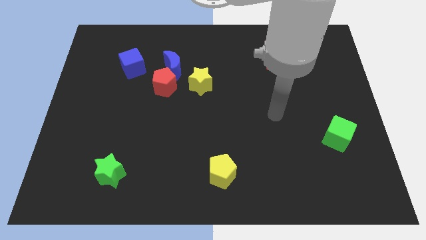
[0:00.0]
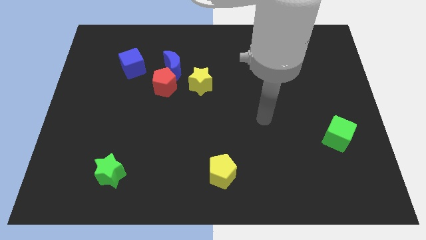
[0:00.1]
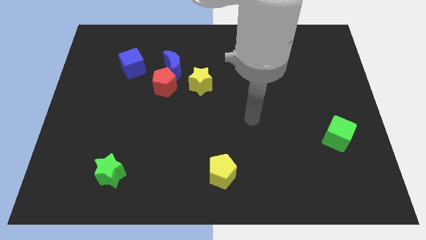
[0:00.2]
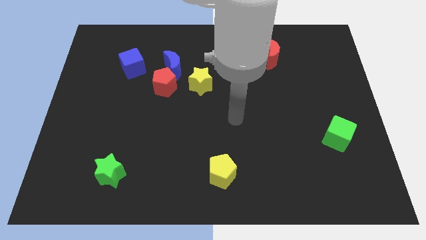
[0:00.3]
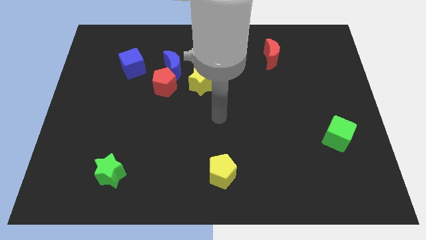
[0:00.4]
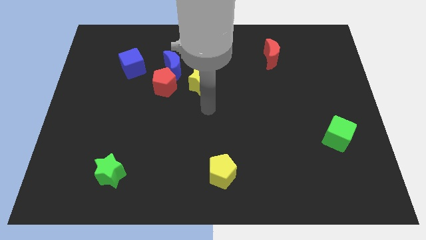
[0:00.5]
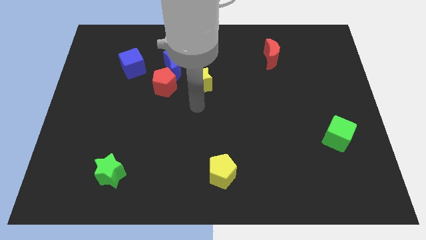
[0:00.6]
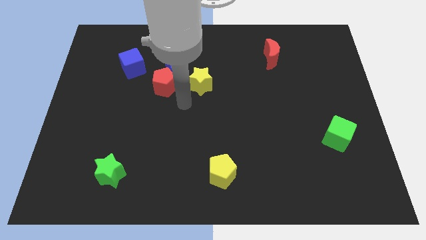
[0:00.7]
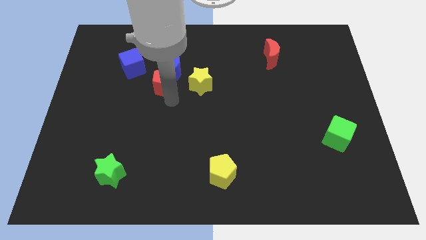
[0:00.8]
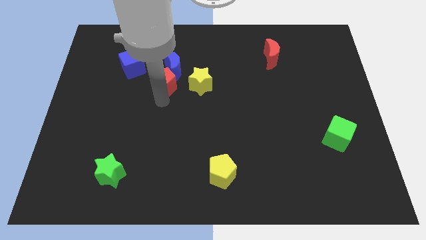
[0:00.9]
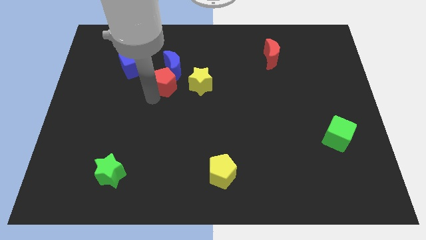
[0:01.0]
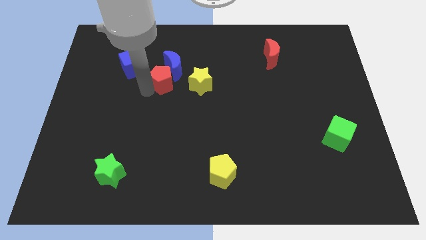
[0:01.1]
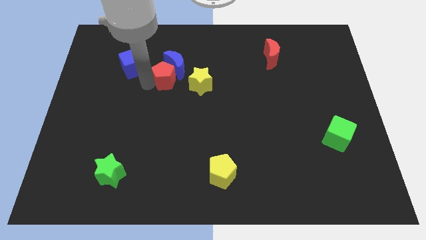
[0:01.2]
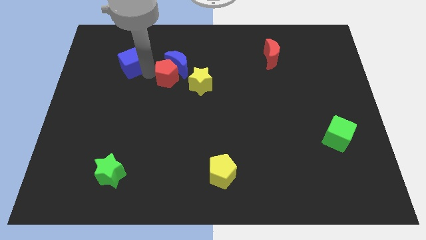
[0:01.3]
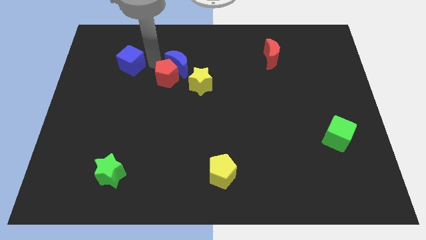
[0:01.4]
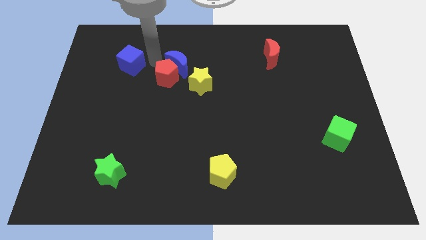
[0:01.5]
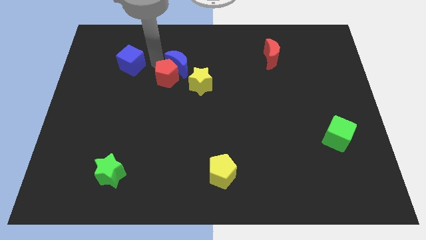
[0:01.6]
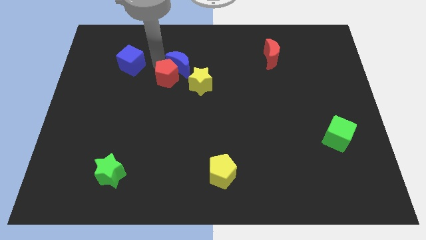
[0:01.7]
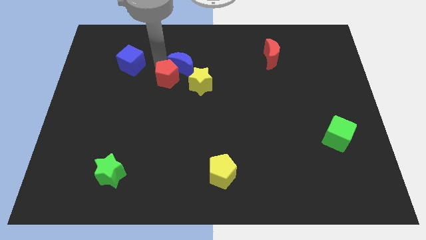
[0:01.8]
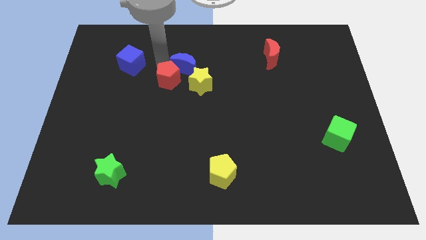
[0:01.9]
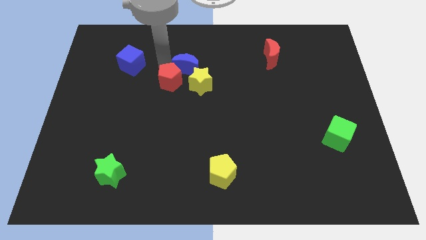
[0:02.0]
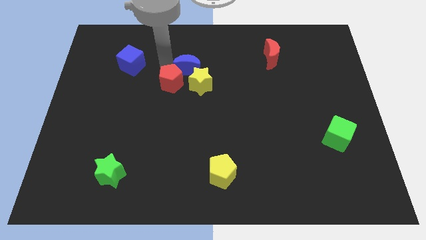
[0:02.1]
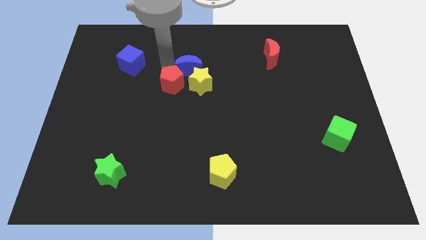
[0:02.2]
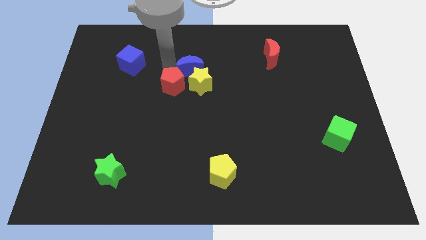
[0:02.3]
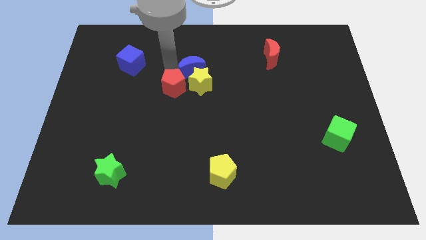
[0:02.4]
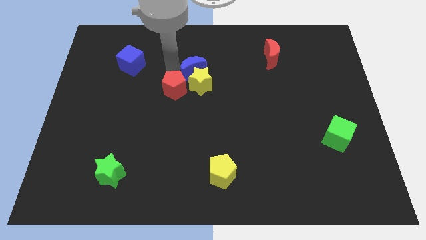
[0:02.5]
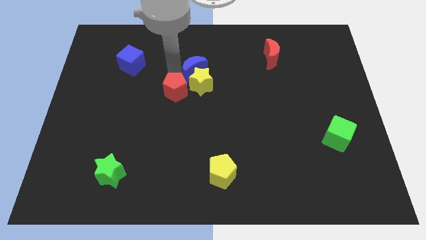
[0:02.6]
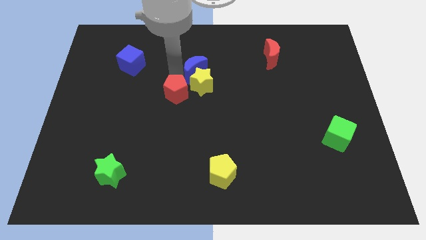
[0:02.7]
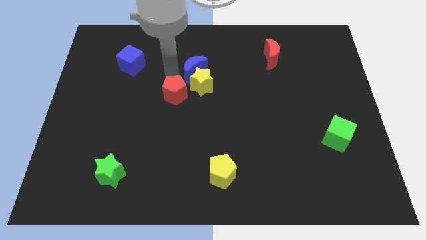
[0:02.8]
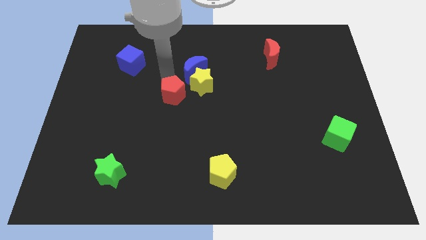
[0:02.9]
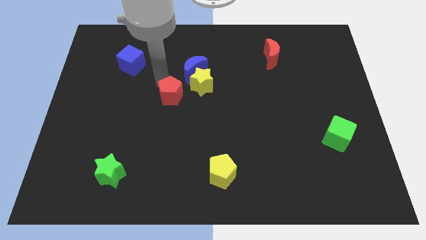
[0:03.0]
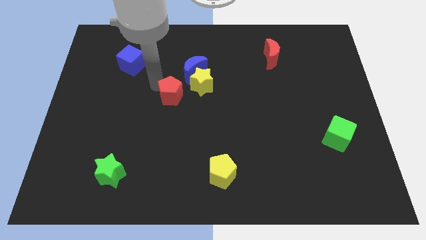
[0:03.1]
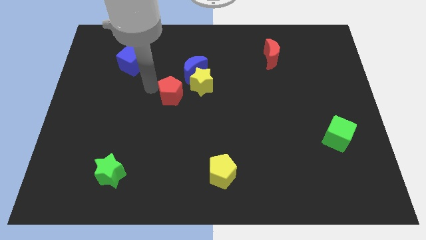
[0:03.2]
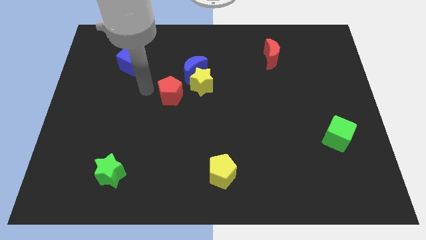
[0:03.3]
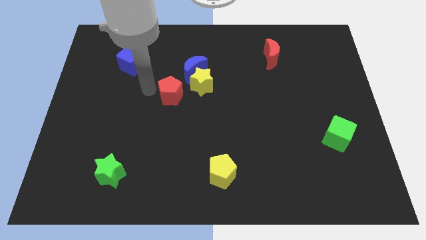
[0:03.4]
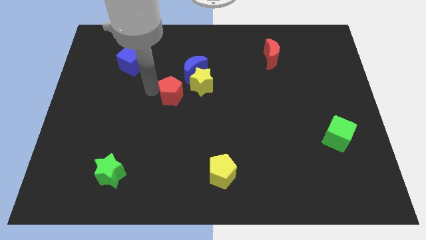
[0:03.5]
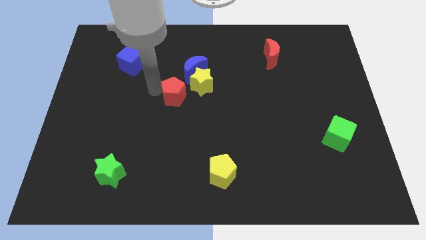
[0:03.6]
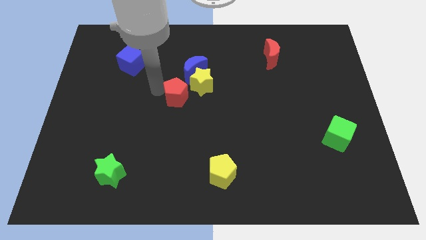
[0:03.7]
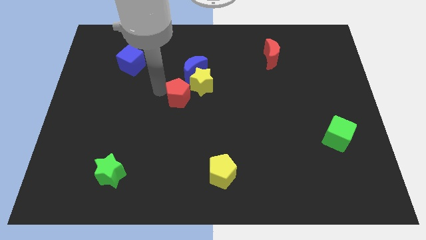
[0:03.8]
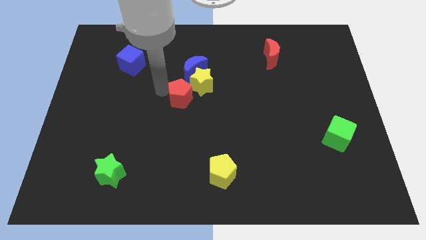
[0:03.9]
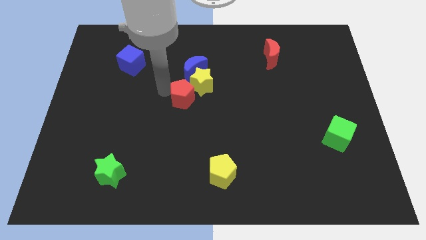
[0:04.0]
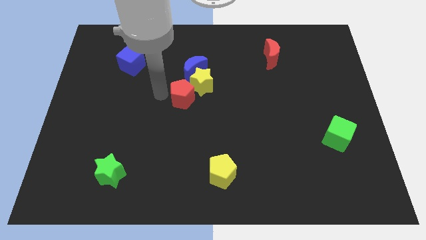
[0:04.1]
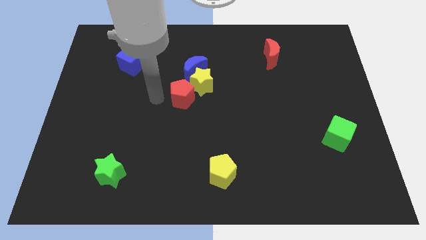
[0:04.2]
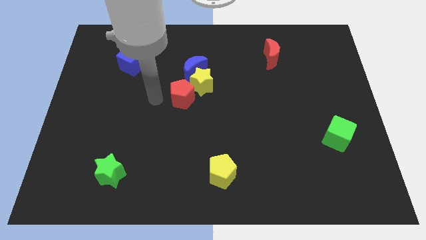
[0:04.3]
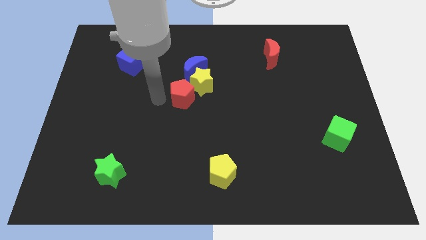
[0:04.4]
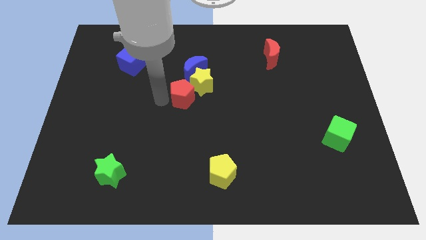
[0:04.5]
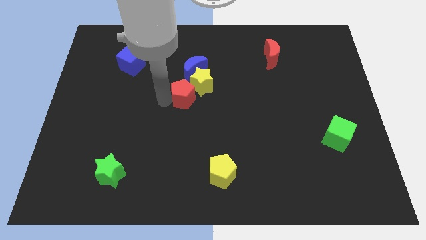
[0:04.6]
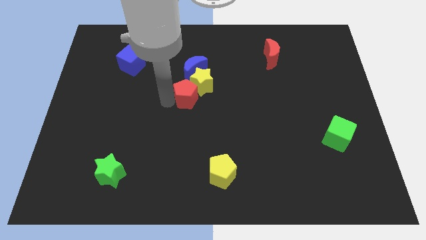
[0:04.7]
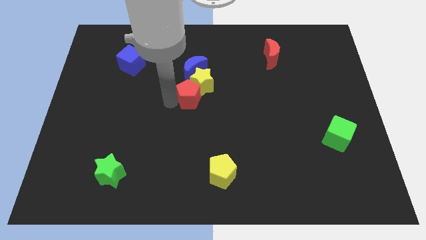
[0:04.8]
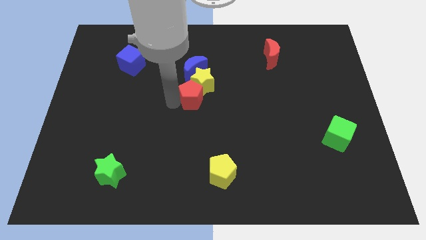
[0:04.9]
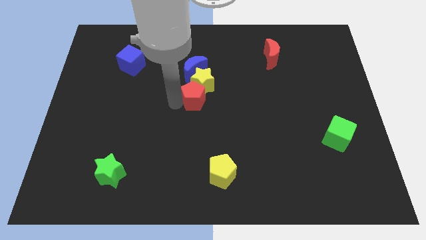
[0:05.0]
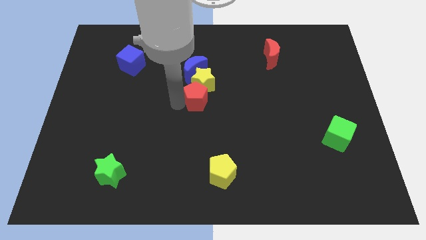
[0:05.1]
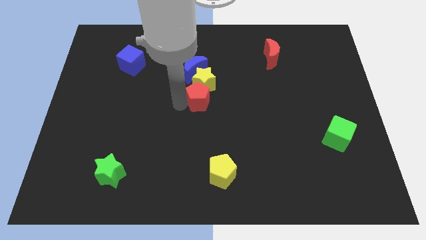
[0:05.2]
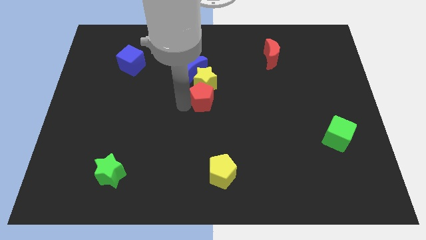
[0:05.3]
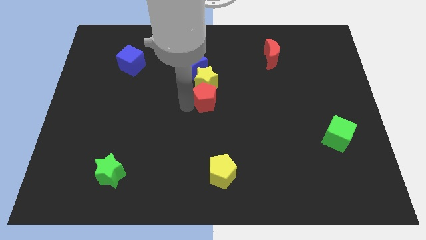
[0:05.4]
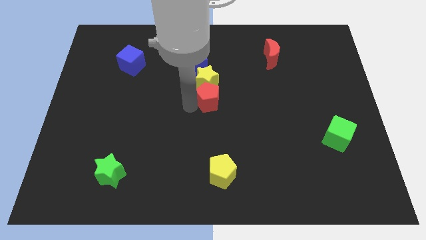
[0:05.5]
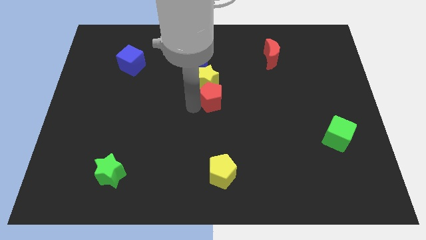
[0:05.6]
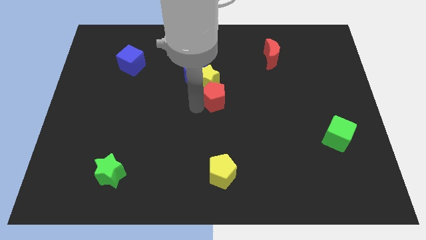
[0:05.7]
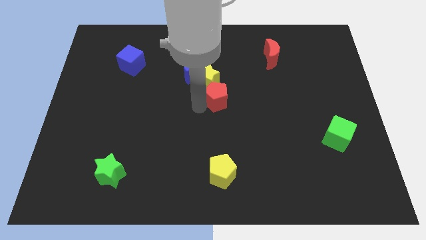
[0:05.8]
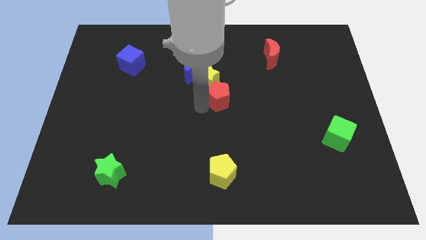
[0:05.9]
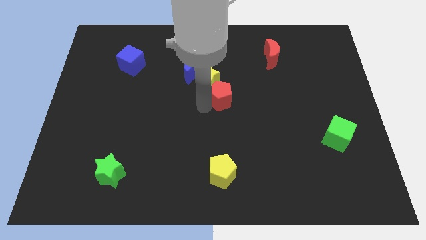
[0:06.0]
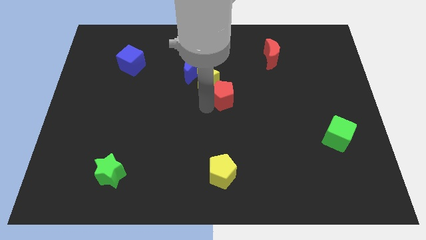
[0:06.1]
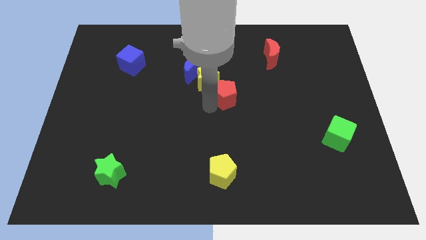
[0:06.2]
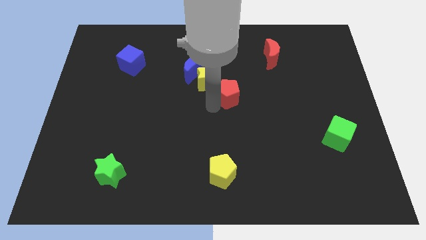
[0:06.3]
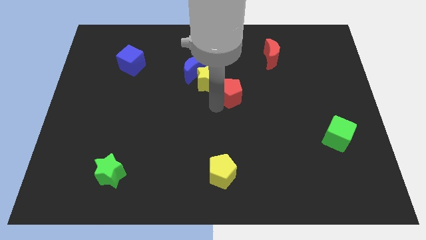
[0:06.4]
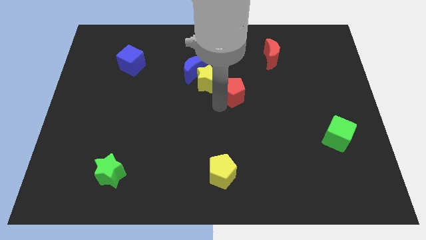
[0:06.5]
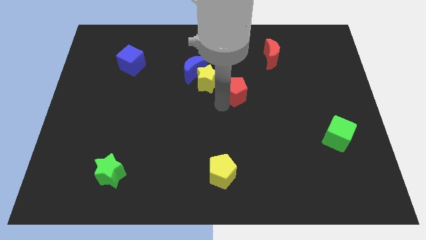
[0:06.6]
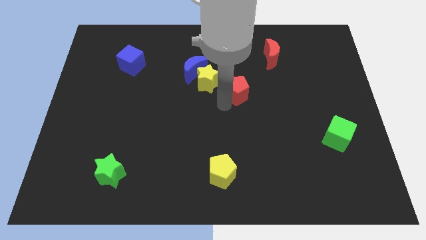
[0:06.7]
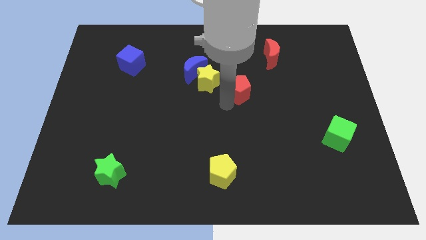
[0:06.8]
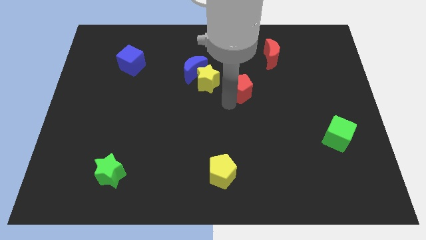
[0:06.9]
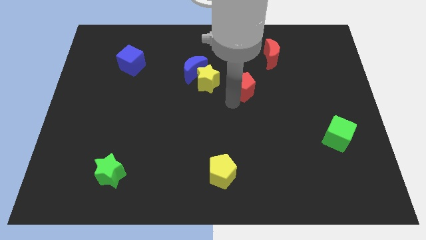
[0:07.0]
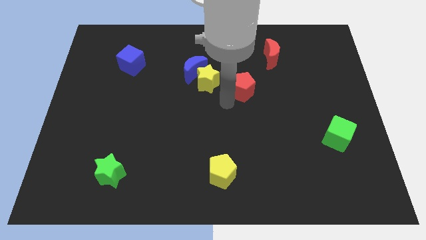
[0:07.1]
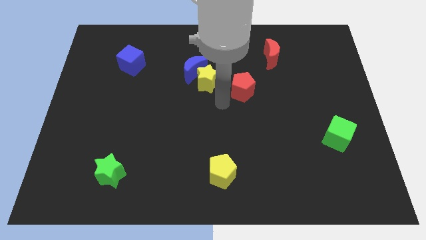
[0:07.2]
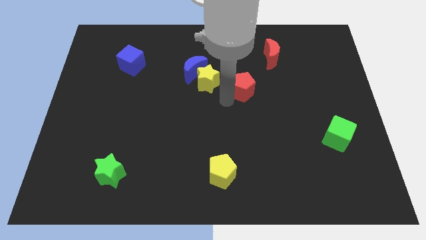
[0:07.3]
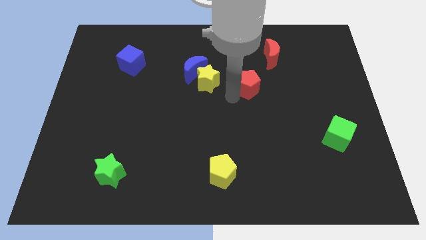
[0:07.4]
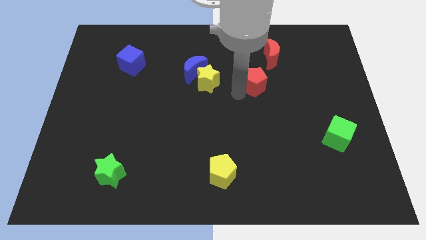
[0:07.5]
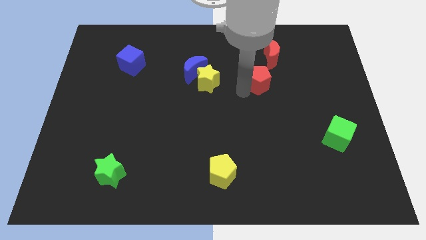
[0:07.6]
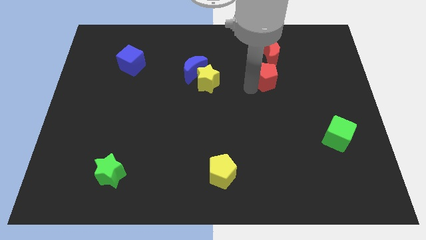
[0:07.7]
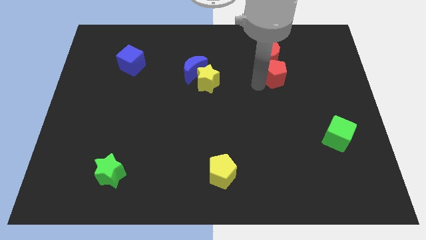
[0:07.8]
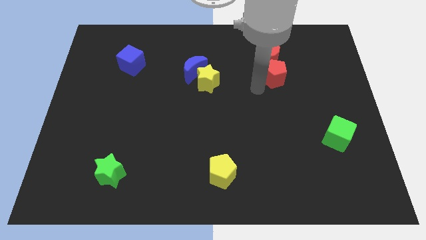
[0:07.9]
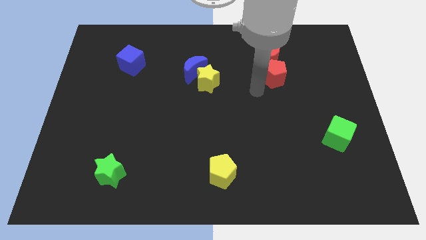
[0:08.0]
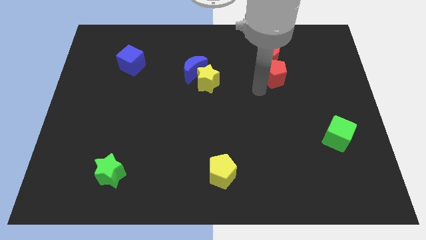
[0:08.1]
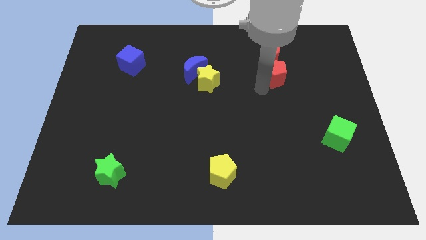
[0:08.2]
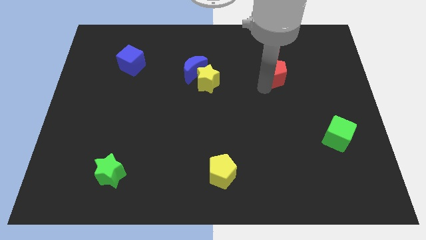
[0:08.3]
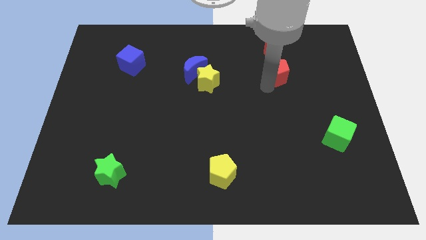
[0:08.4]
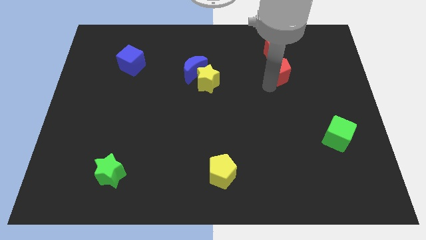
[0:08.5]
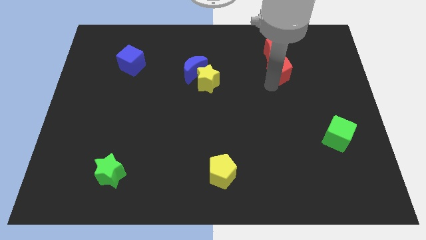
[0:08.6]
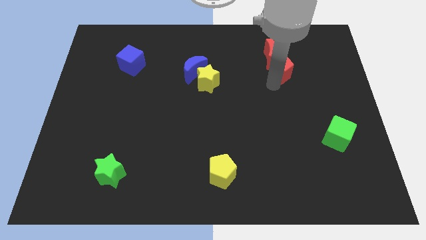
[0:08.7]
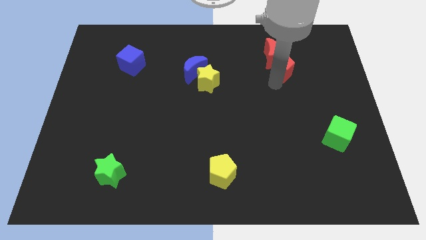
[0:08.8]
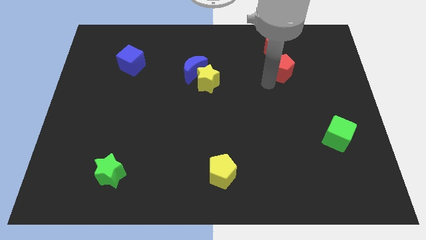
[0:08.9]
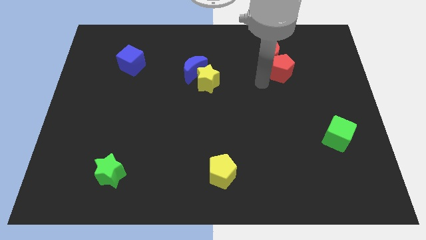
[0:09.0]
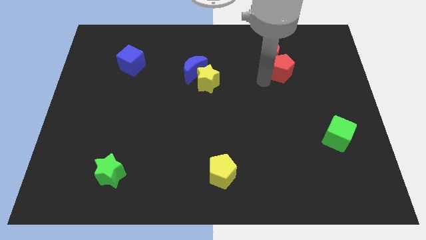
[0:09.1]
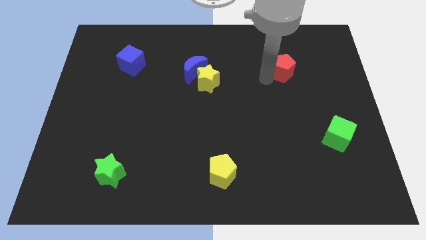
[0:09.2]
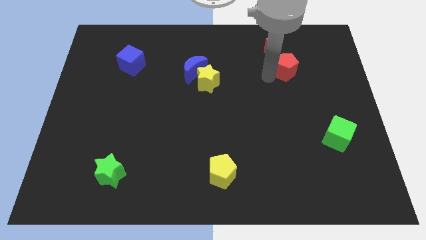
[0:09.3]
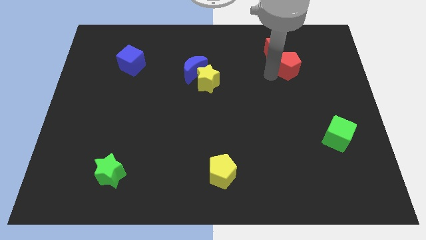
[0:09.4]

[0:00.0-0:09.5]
slide the red pentagon just right of the red moon
